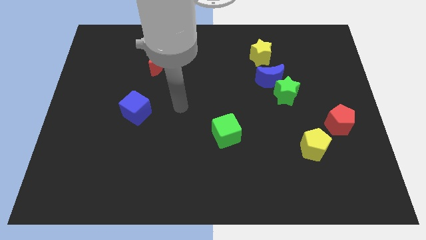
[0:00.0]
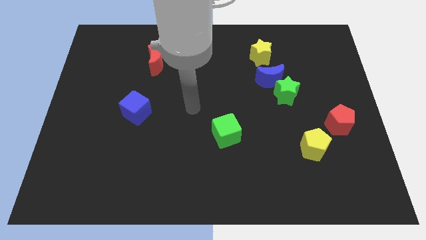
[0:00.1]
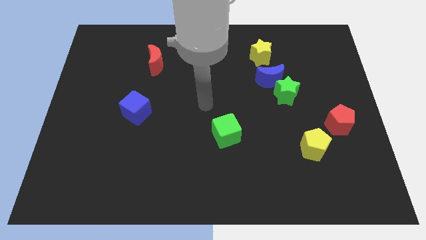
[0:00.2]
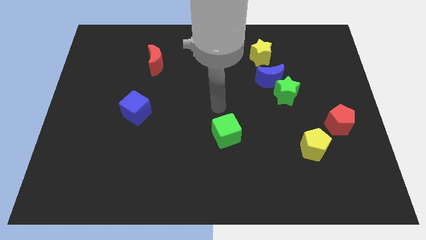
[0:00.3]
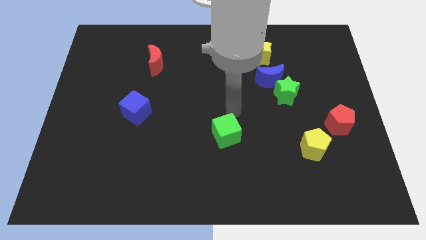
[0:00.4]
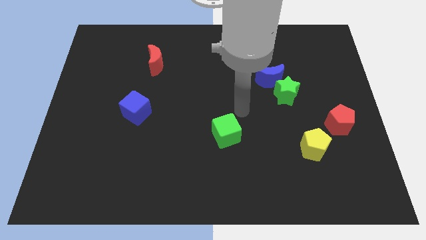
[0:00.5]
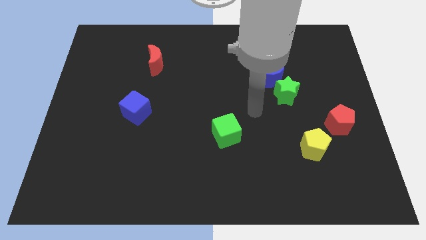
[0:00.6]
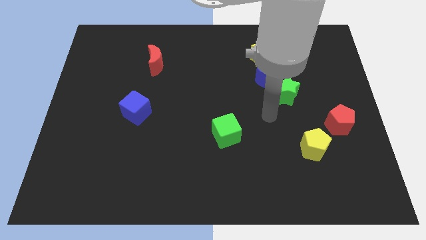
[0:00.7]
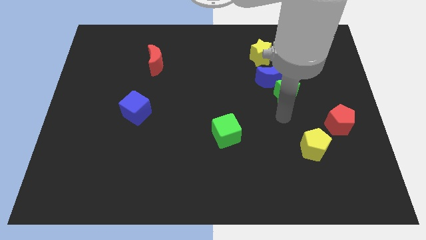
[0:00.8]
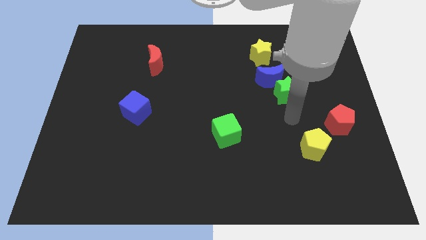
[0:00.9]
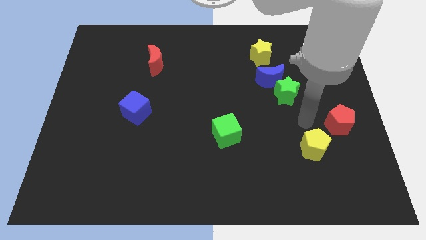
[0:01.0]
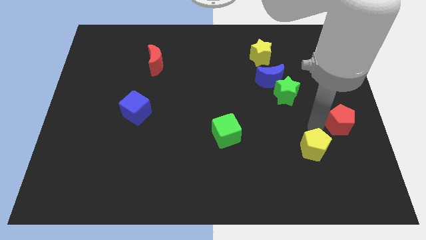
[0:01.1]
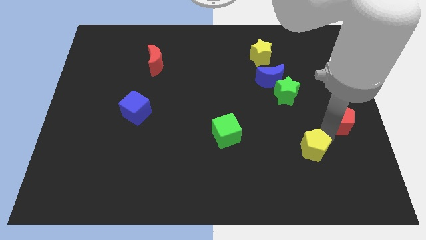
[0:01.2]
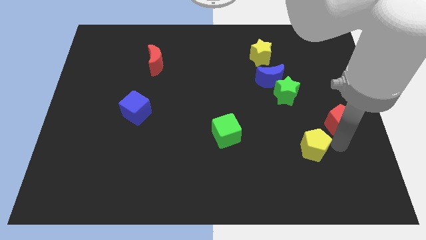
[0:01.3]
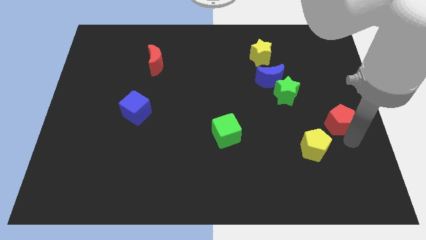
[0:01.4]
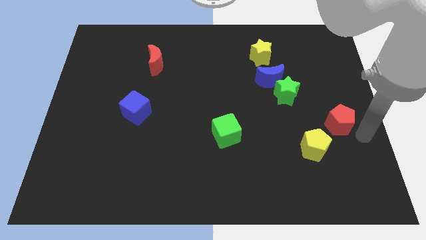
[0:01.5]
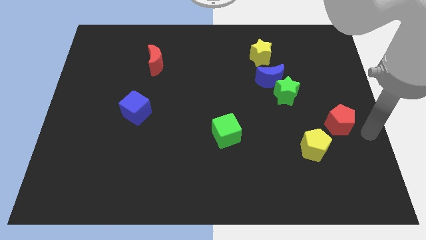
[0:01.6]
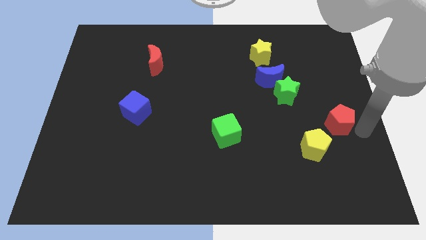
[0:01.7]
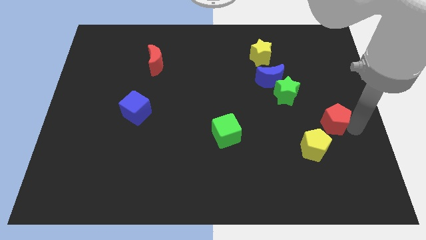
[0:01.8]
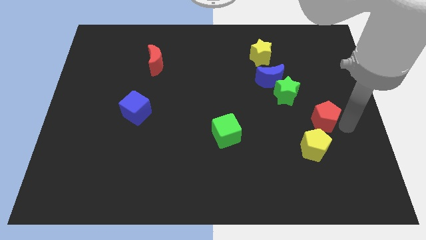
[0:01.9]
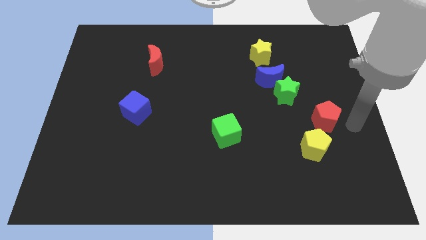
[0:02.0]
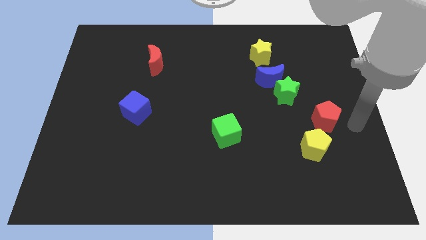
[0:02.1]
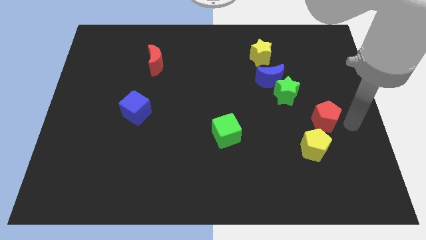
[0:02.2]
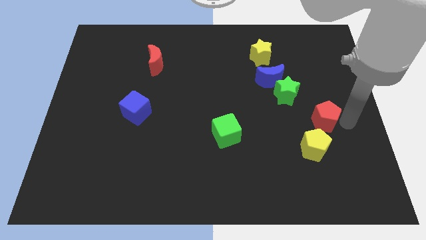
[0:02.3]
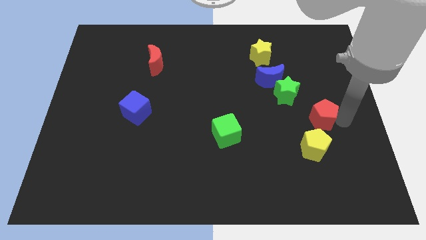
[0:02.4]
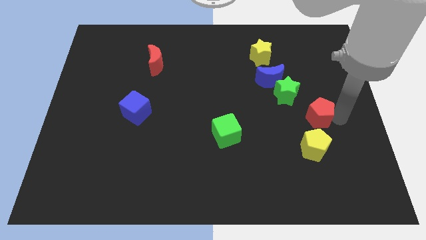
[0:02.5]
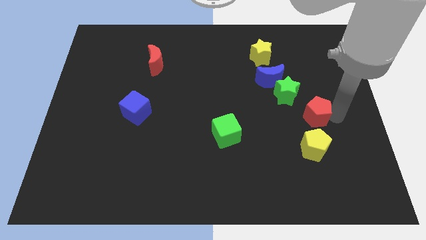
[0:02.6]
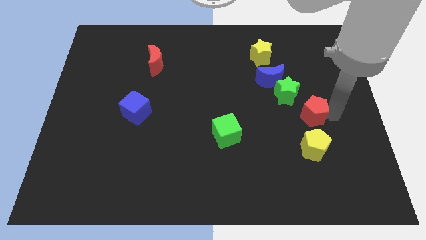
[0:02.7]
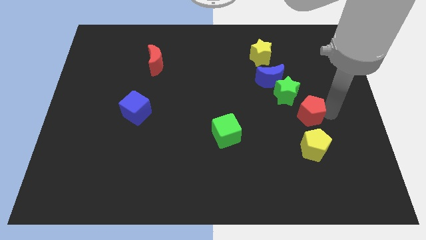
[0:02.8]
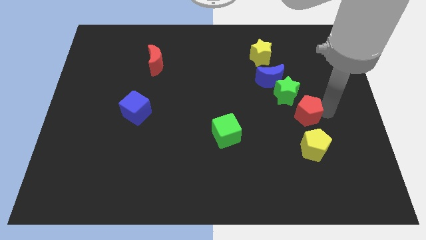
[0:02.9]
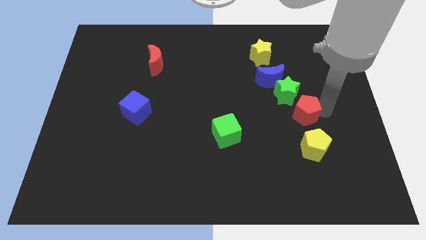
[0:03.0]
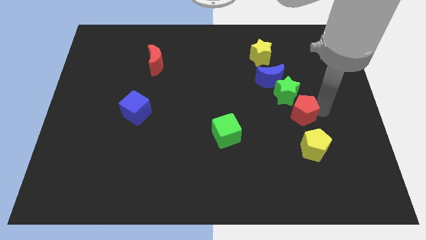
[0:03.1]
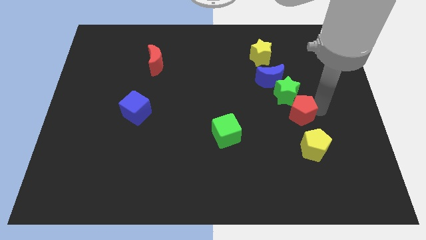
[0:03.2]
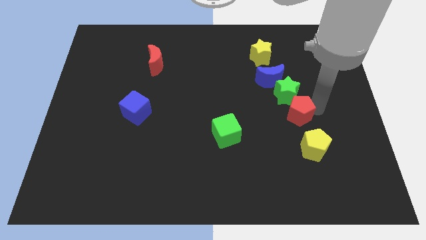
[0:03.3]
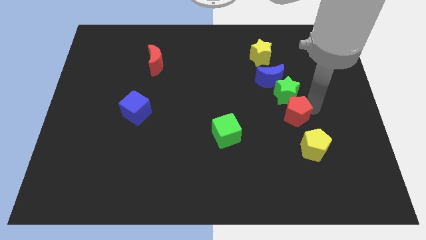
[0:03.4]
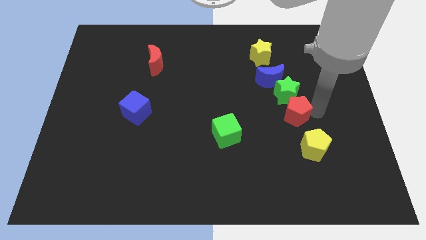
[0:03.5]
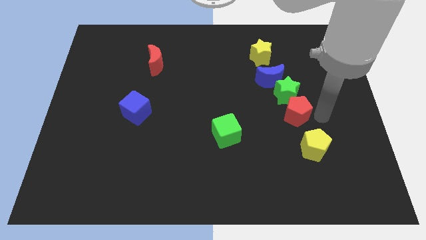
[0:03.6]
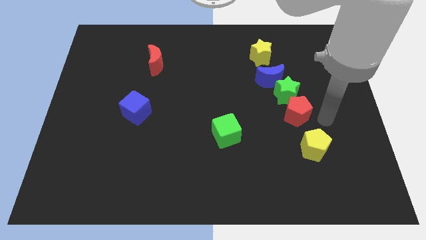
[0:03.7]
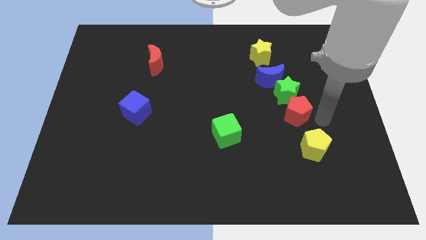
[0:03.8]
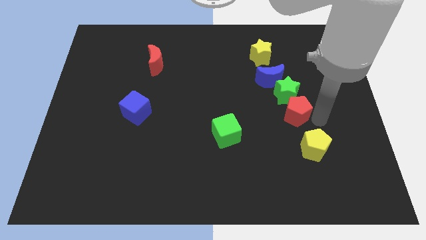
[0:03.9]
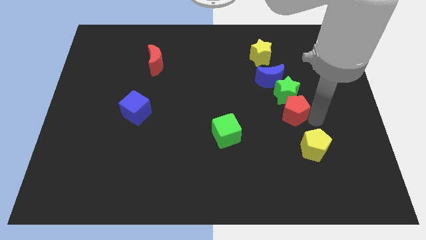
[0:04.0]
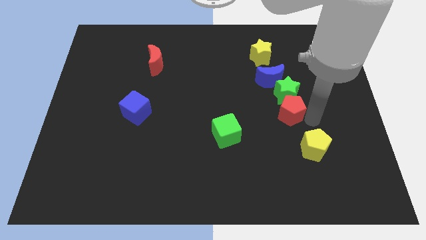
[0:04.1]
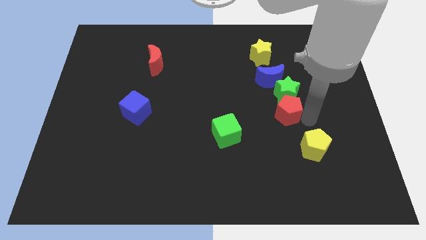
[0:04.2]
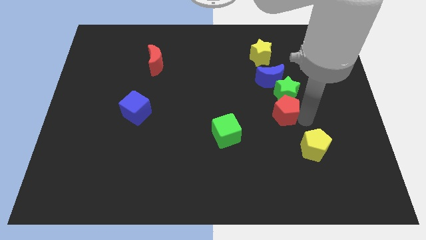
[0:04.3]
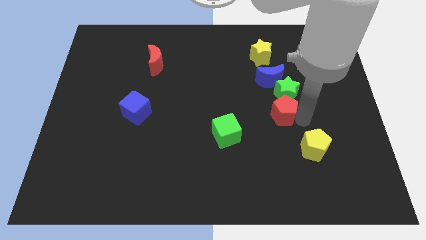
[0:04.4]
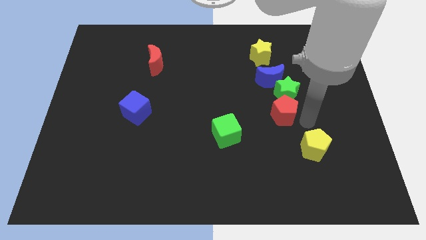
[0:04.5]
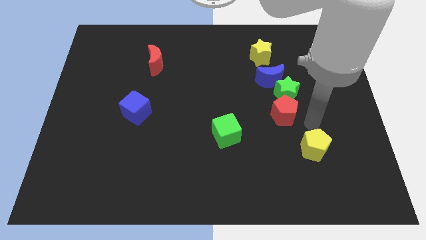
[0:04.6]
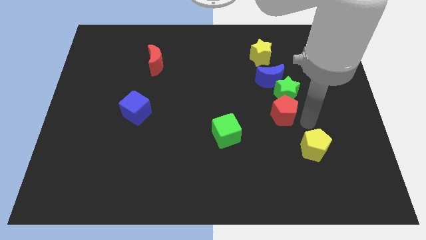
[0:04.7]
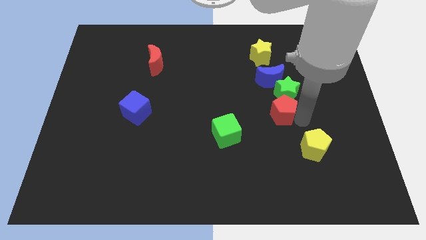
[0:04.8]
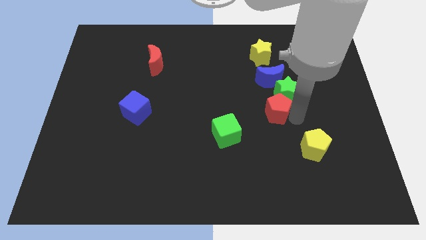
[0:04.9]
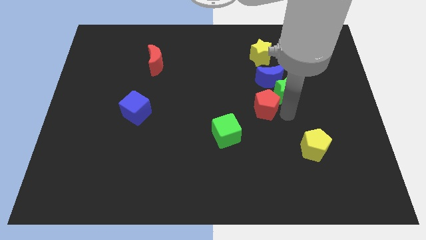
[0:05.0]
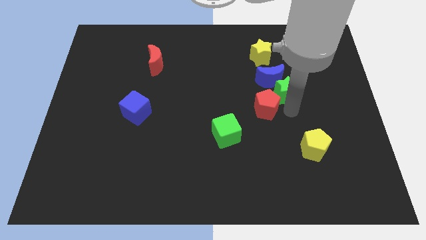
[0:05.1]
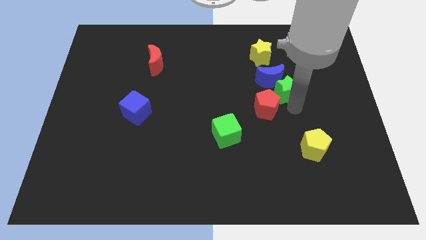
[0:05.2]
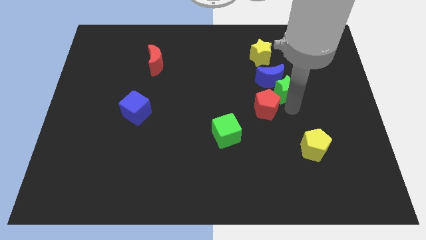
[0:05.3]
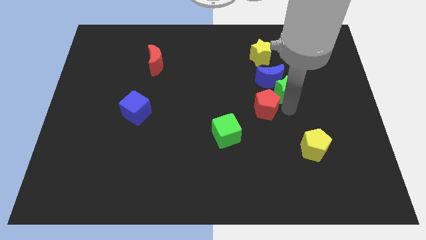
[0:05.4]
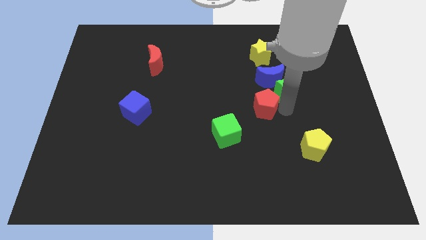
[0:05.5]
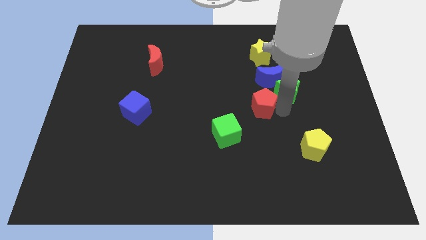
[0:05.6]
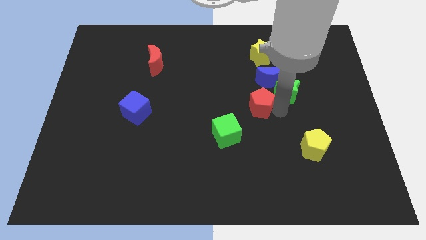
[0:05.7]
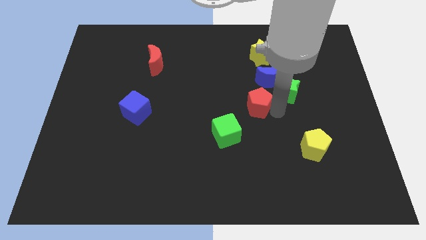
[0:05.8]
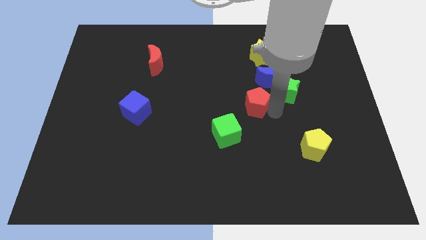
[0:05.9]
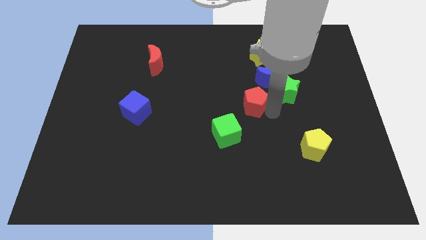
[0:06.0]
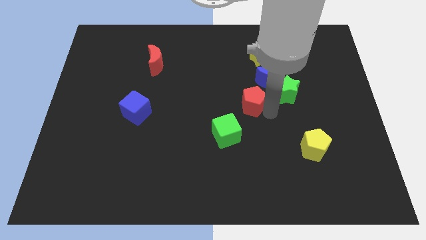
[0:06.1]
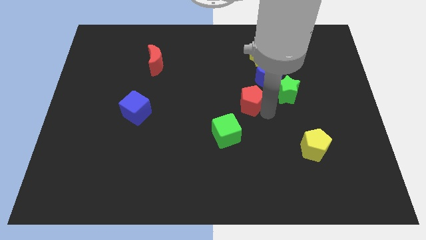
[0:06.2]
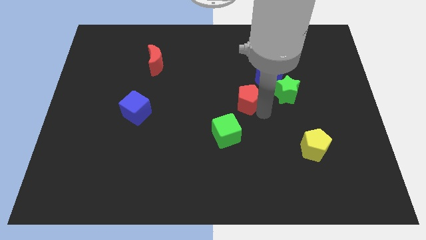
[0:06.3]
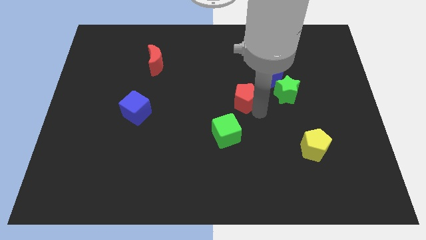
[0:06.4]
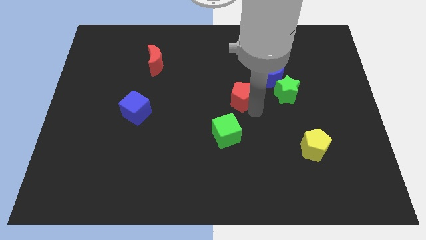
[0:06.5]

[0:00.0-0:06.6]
slide the red pentagon left

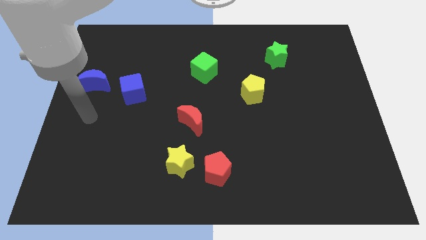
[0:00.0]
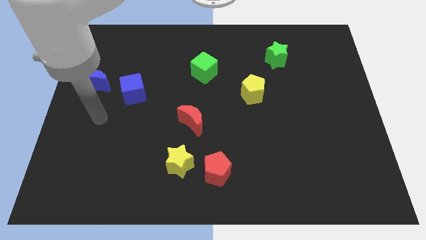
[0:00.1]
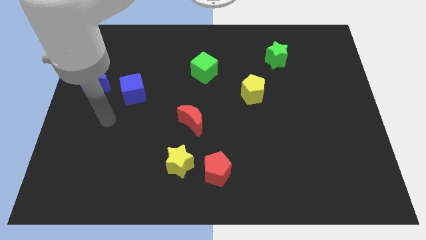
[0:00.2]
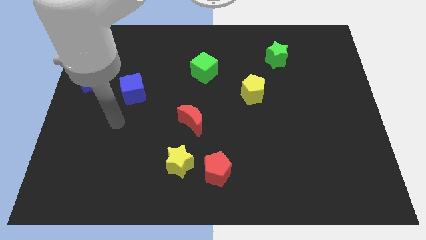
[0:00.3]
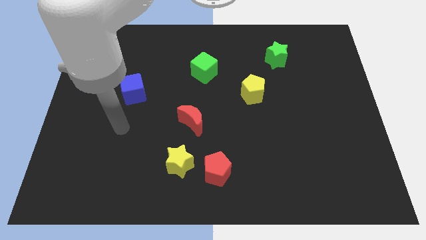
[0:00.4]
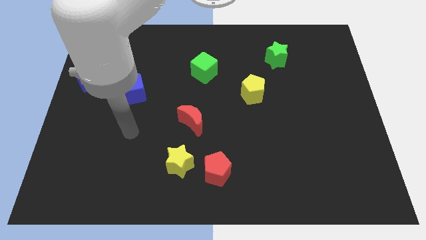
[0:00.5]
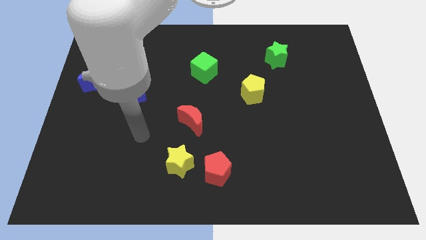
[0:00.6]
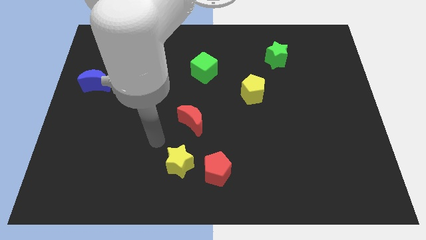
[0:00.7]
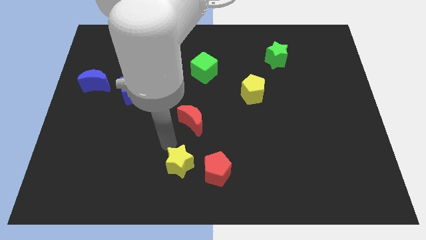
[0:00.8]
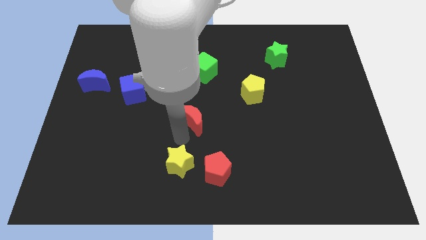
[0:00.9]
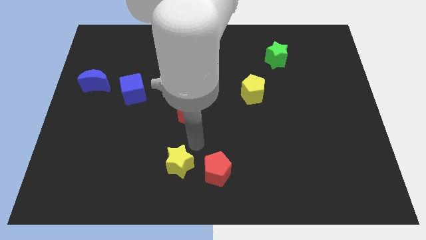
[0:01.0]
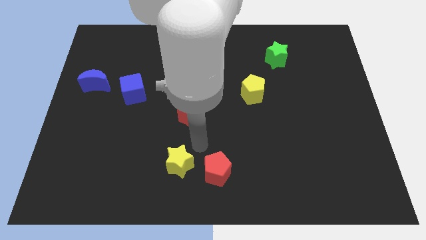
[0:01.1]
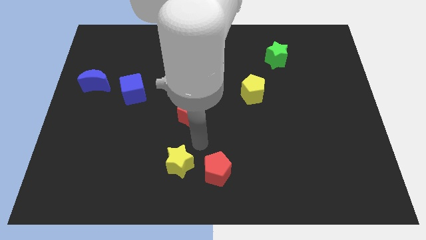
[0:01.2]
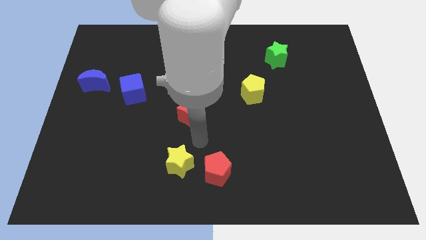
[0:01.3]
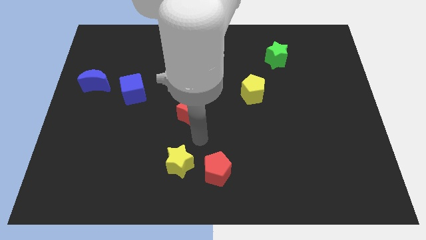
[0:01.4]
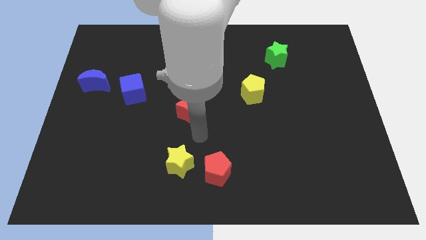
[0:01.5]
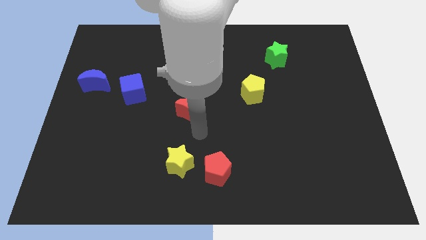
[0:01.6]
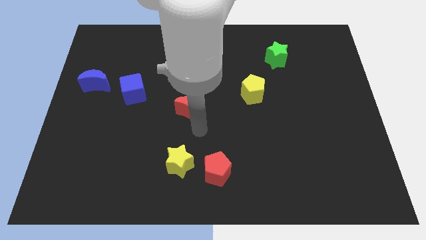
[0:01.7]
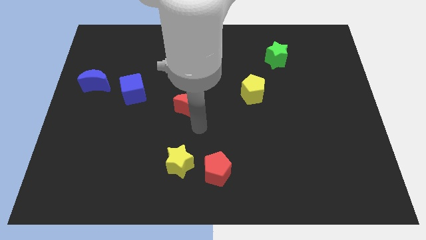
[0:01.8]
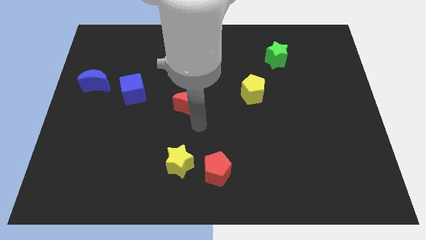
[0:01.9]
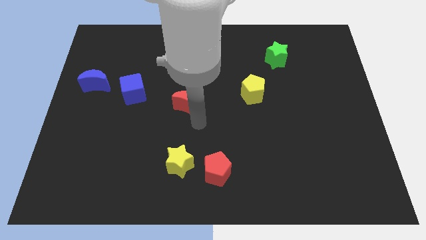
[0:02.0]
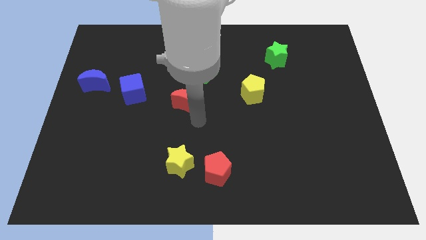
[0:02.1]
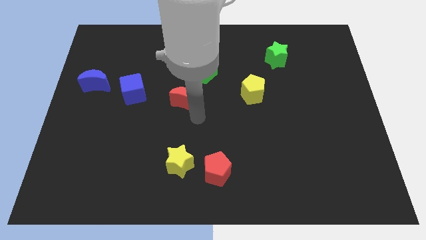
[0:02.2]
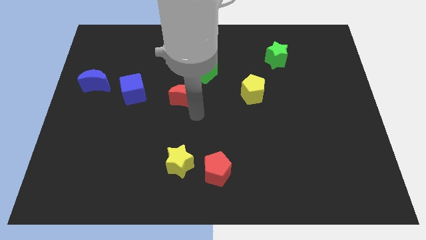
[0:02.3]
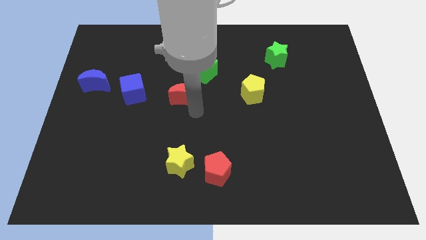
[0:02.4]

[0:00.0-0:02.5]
move the red moon up a little
